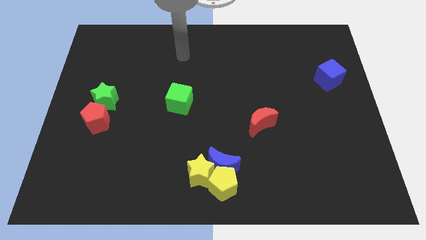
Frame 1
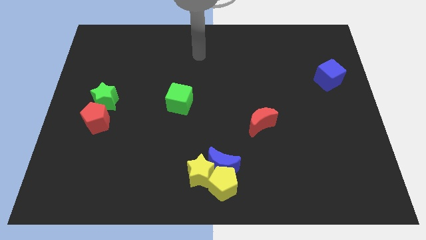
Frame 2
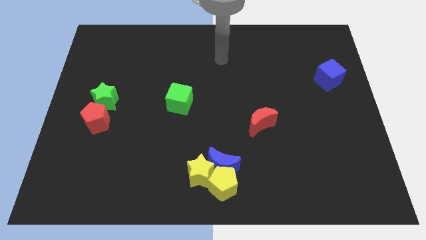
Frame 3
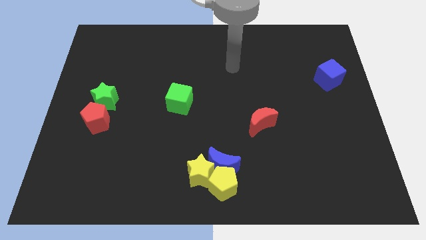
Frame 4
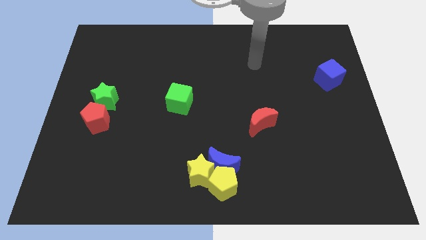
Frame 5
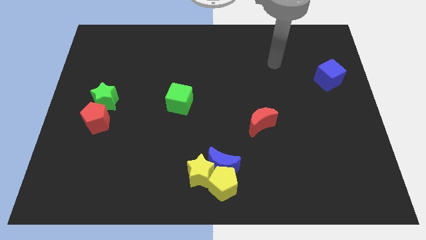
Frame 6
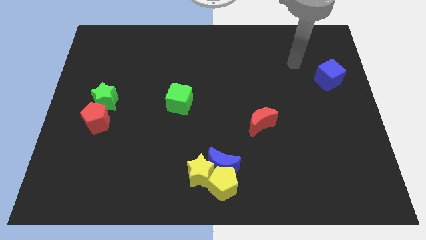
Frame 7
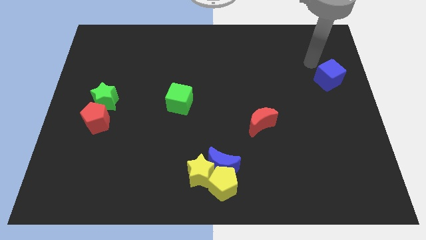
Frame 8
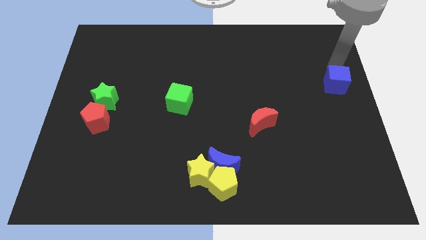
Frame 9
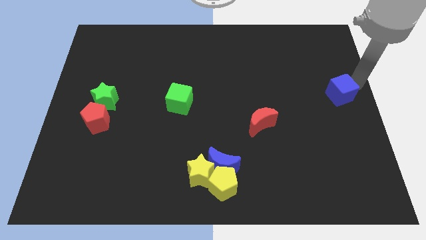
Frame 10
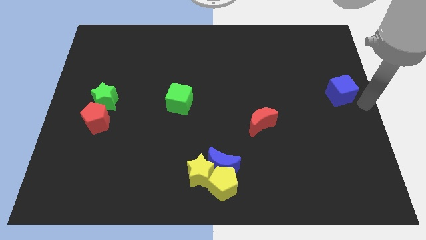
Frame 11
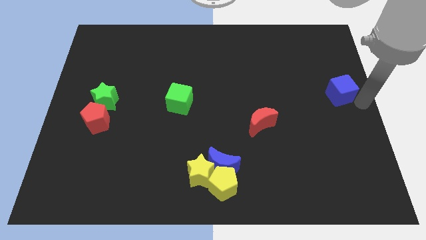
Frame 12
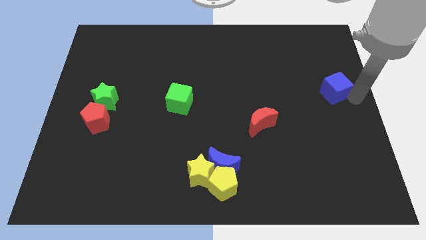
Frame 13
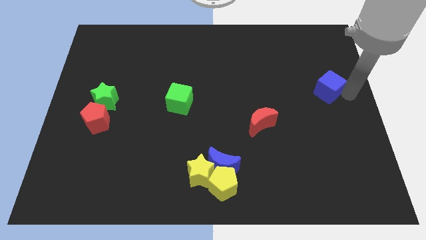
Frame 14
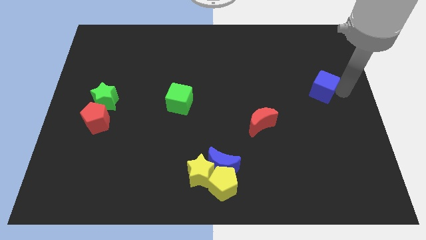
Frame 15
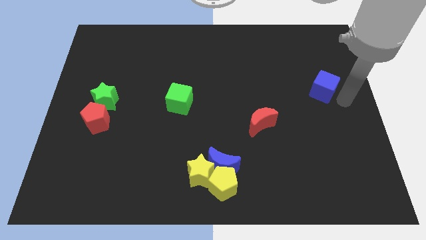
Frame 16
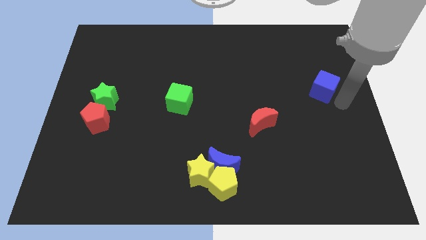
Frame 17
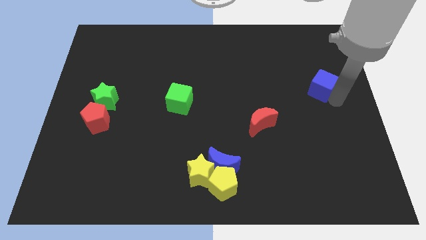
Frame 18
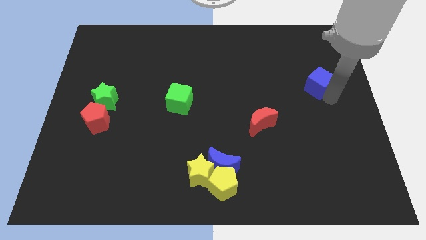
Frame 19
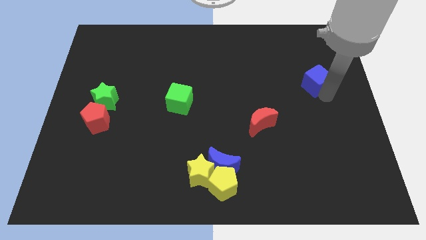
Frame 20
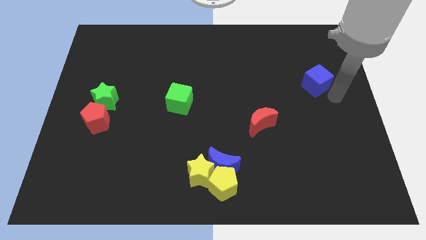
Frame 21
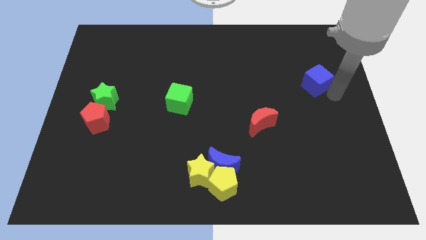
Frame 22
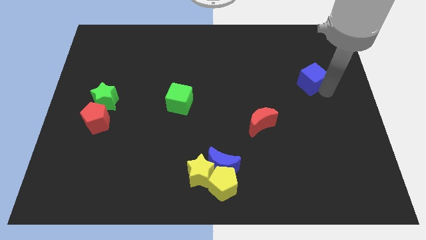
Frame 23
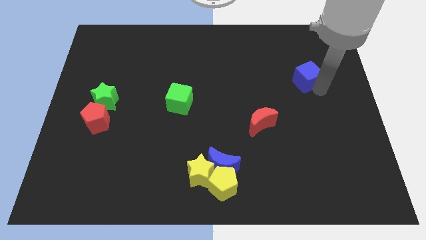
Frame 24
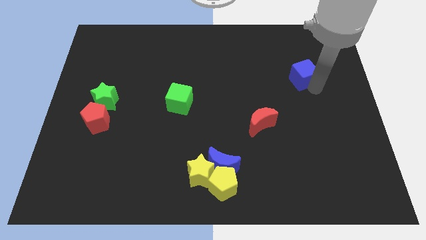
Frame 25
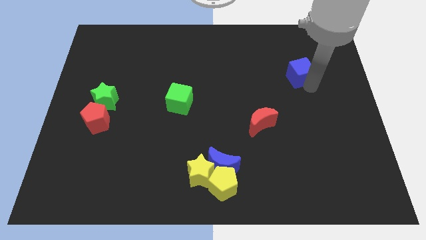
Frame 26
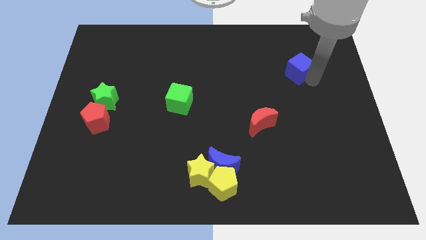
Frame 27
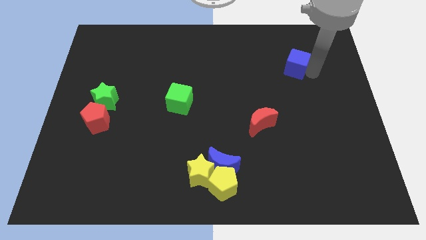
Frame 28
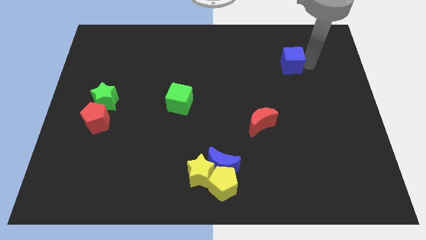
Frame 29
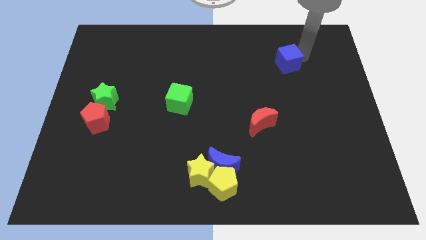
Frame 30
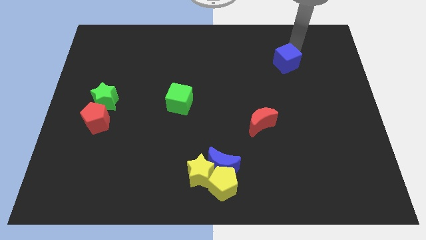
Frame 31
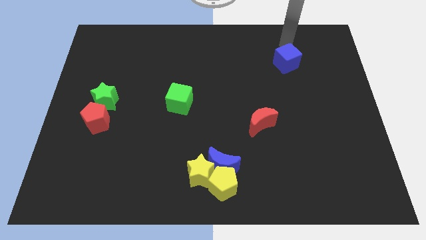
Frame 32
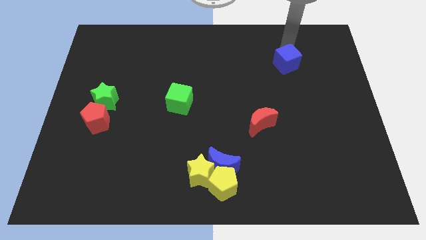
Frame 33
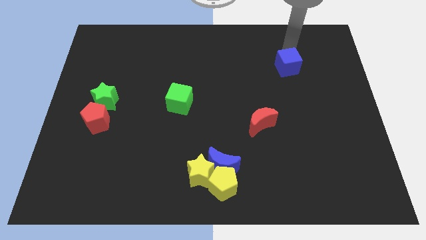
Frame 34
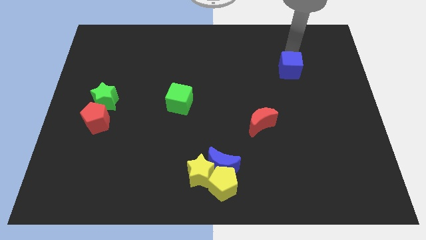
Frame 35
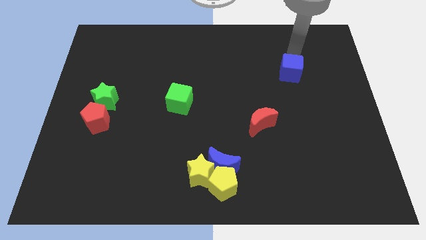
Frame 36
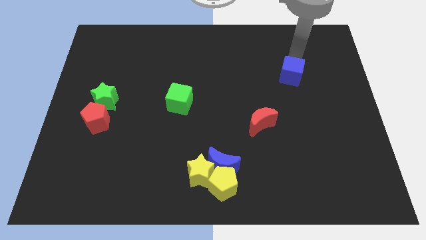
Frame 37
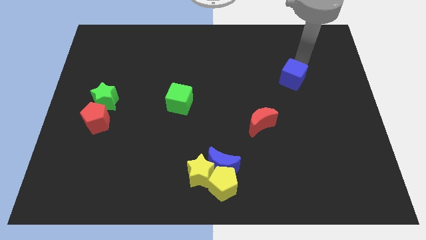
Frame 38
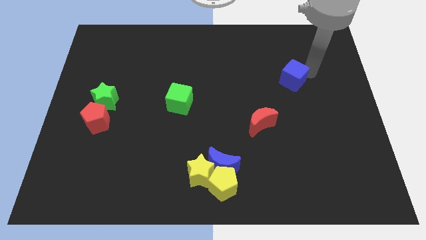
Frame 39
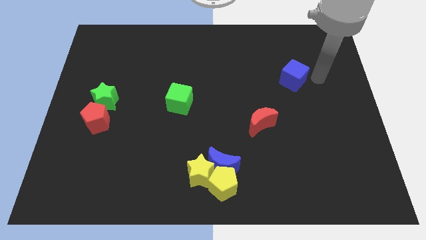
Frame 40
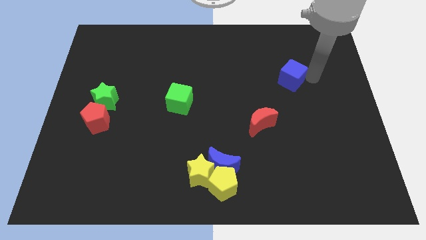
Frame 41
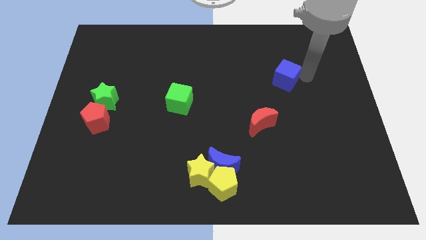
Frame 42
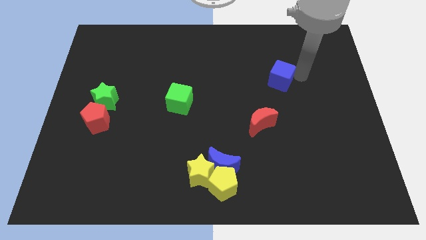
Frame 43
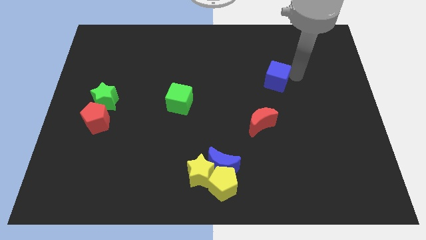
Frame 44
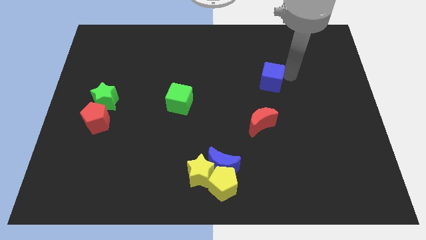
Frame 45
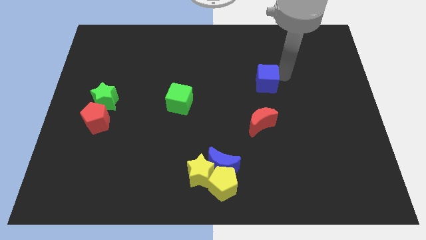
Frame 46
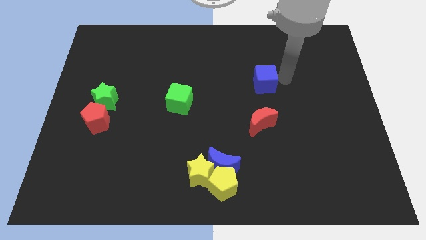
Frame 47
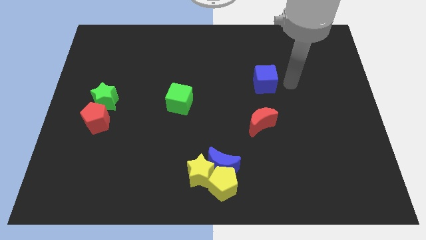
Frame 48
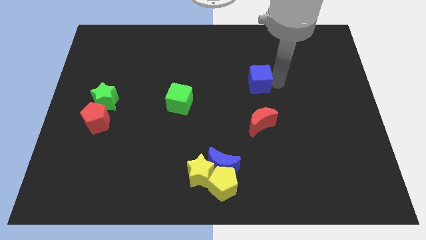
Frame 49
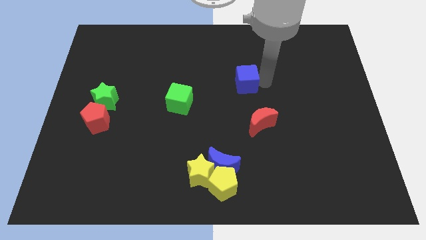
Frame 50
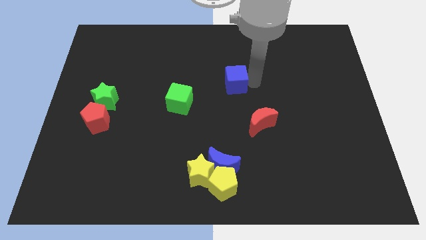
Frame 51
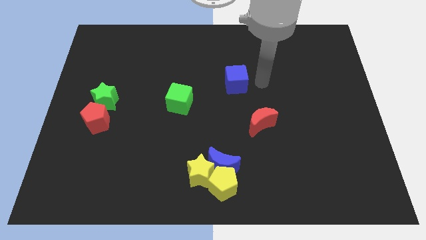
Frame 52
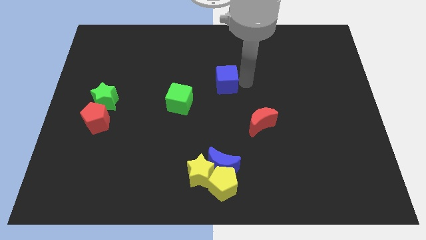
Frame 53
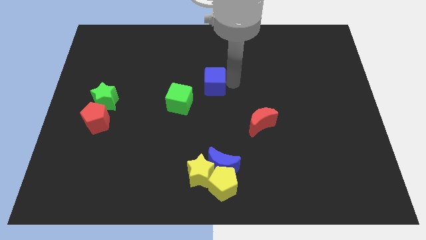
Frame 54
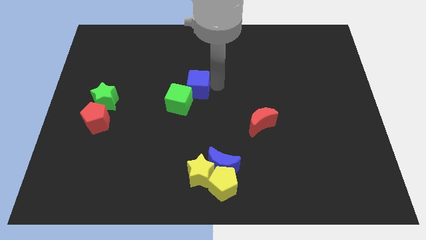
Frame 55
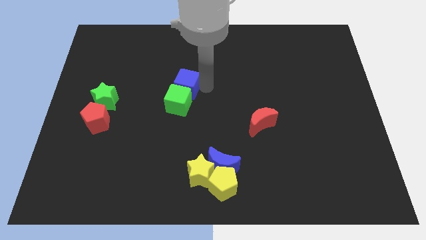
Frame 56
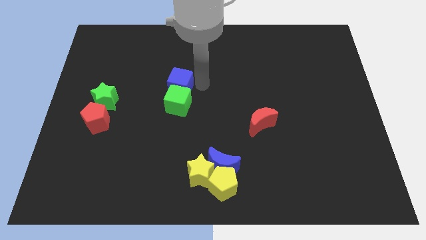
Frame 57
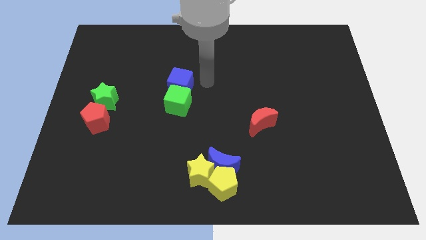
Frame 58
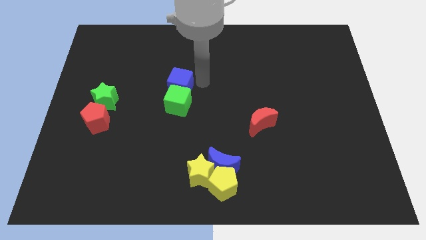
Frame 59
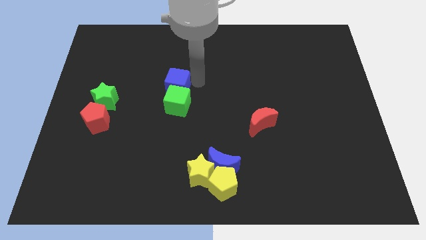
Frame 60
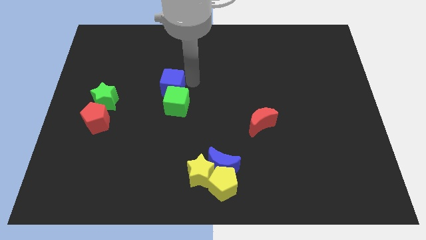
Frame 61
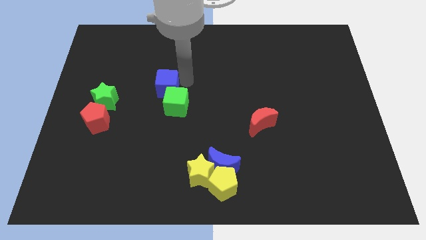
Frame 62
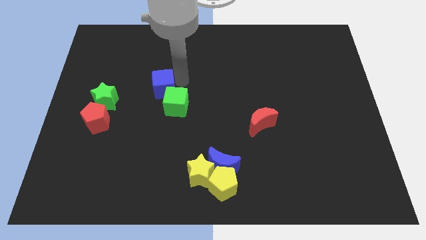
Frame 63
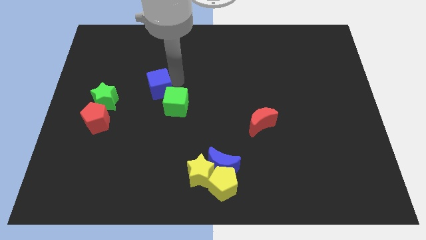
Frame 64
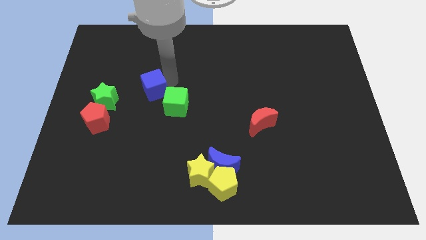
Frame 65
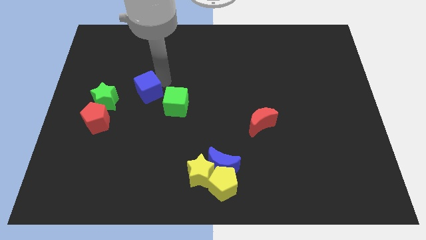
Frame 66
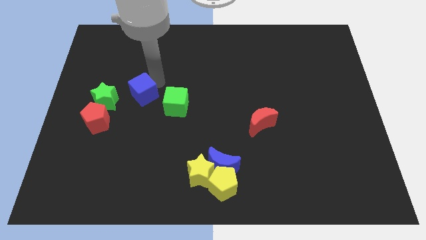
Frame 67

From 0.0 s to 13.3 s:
push the blue cube diagonally up and to the right of the red pentagon
